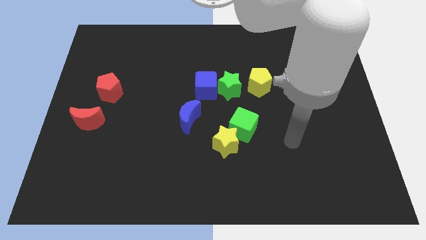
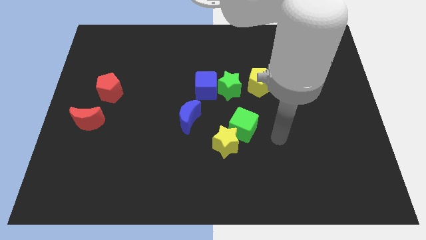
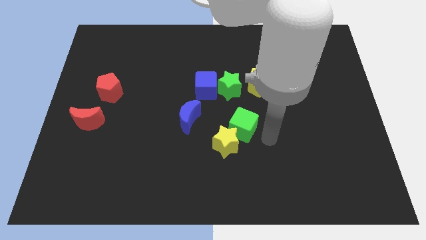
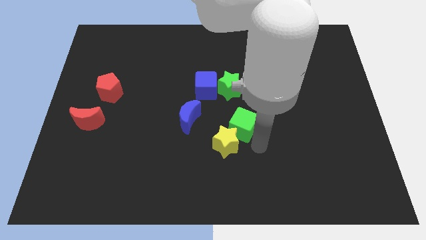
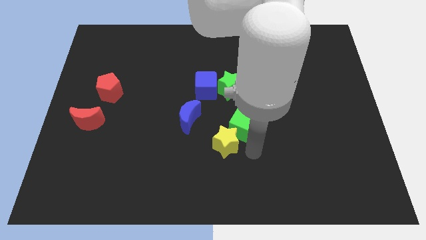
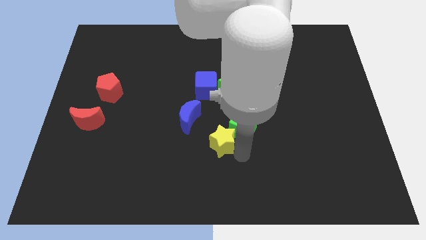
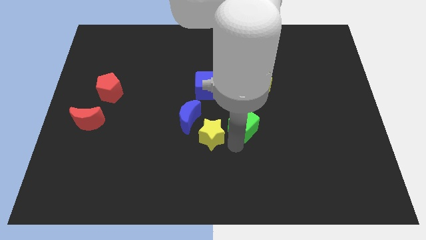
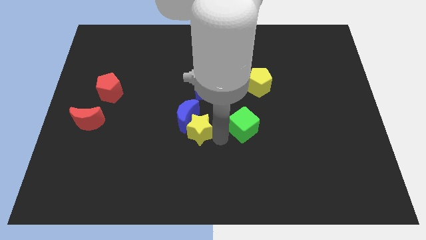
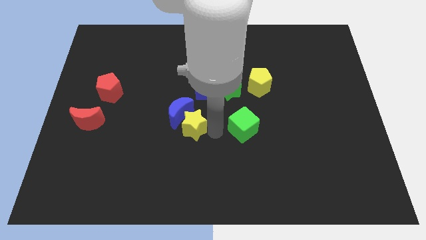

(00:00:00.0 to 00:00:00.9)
pull the green cube apart from the yellow star

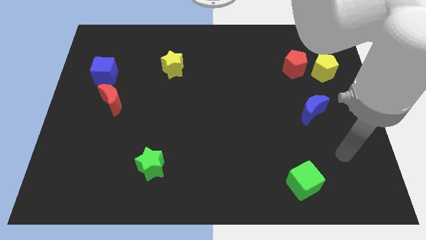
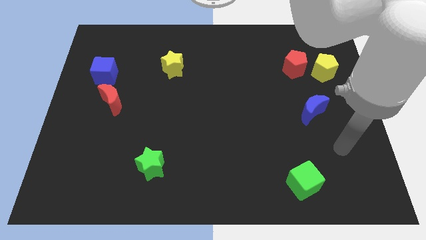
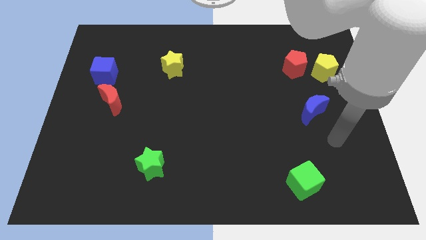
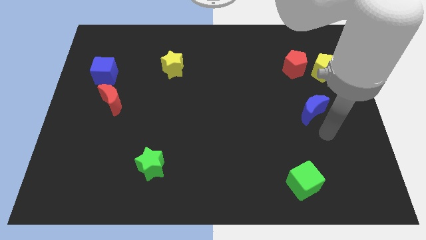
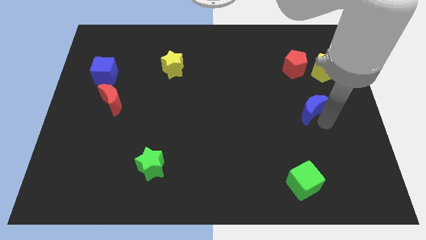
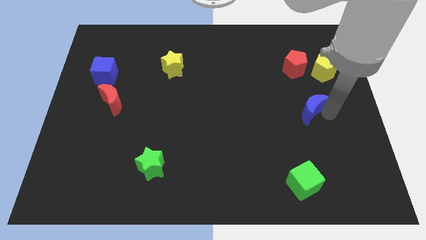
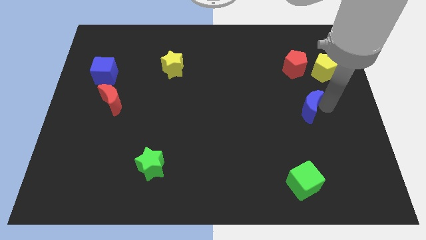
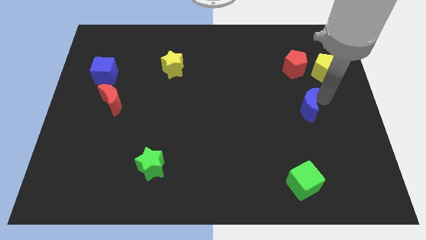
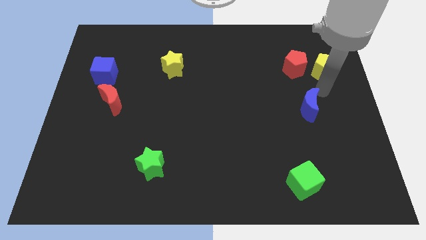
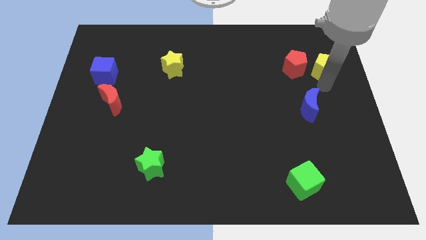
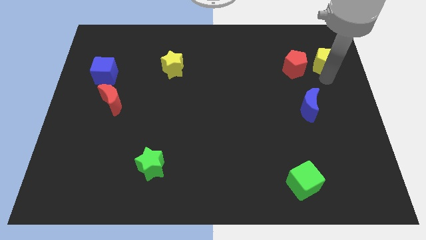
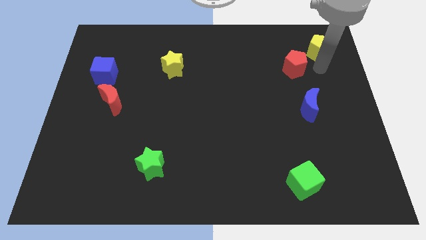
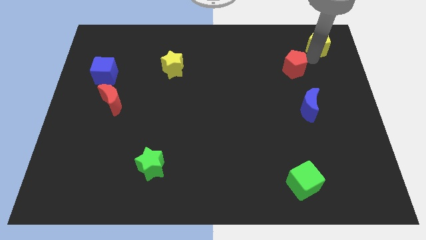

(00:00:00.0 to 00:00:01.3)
move the red pentagon away from the yellow pentagon

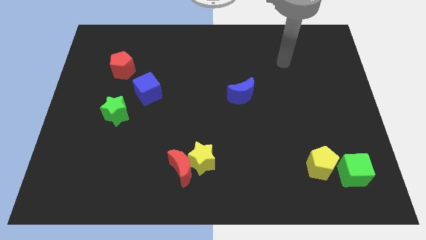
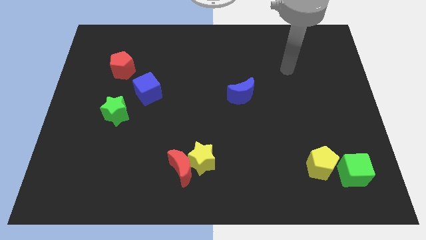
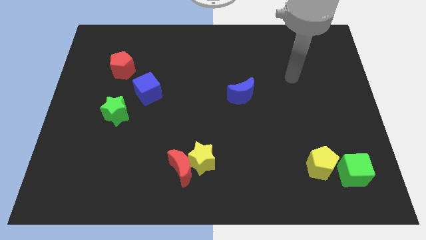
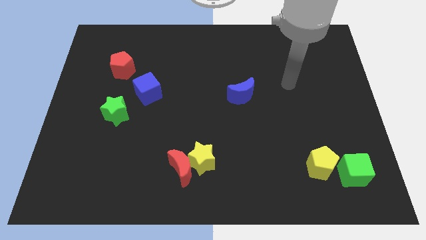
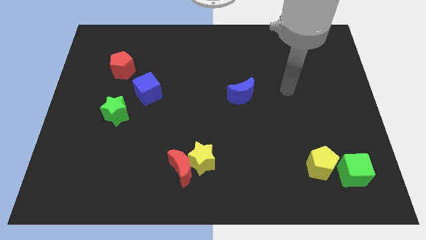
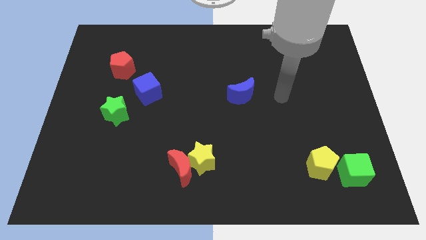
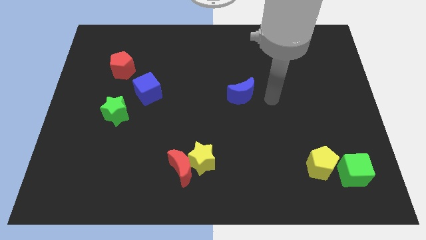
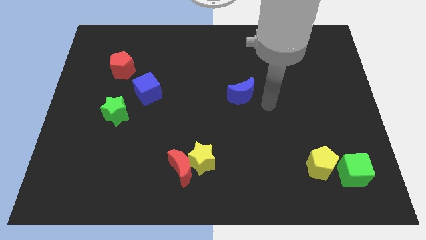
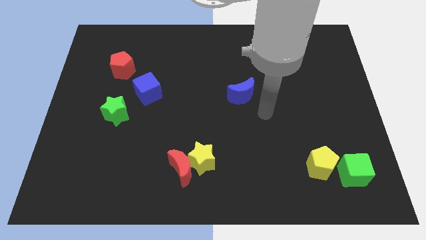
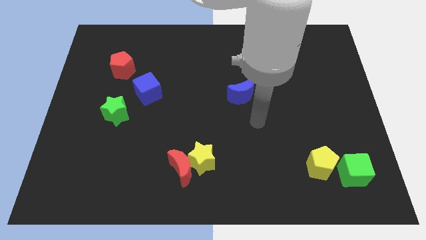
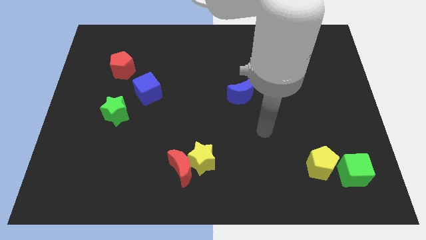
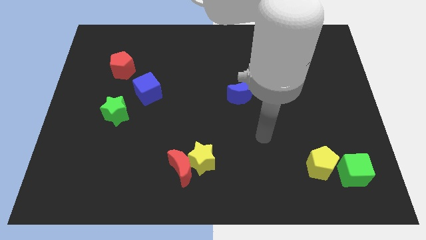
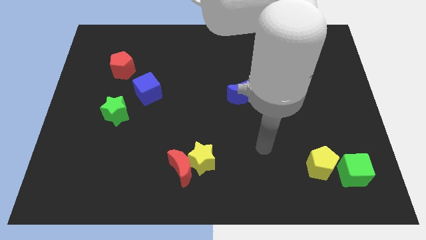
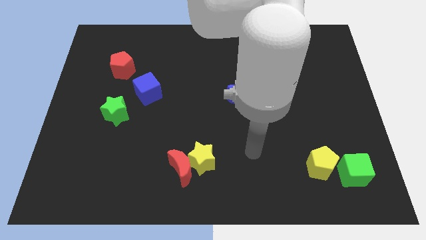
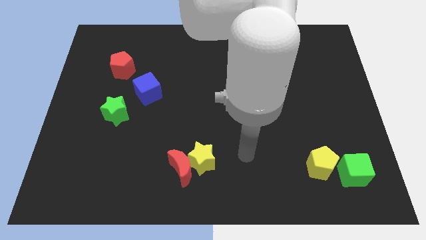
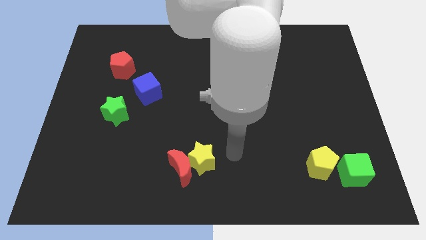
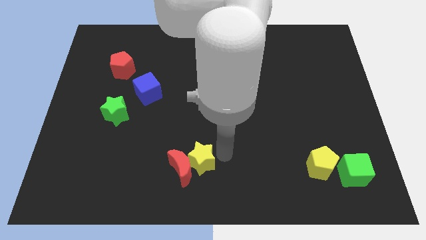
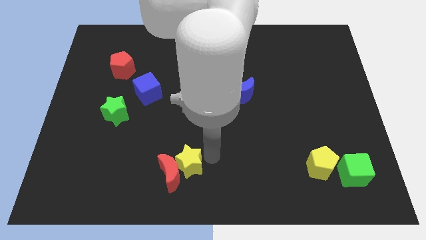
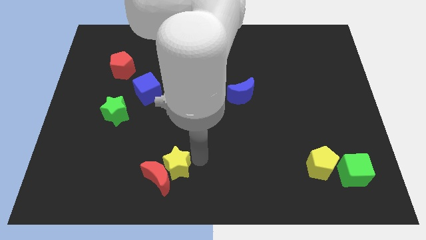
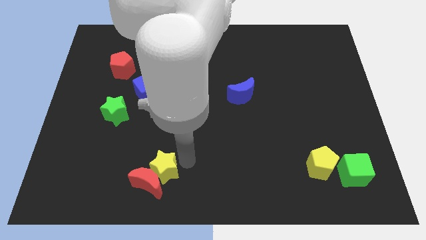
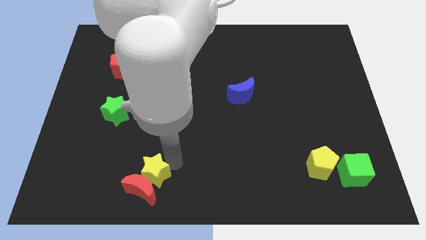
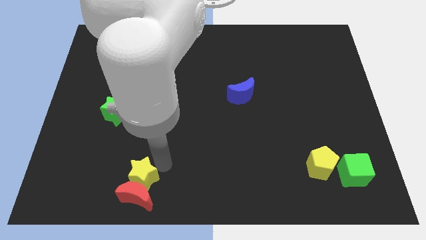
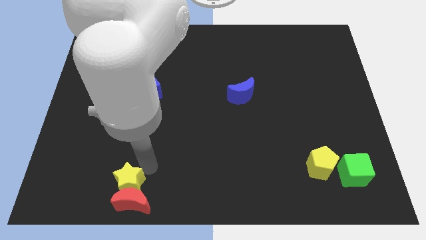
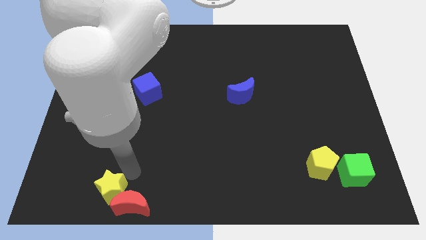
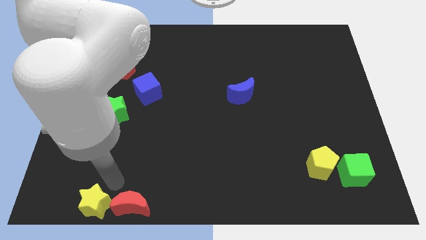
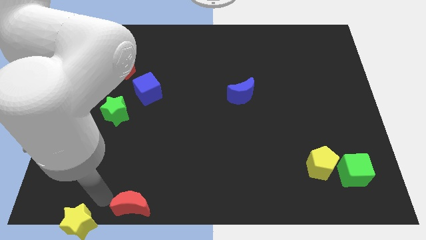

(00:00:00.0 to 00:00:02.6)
pull the red moon apart from the yellow star

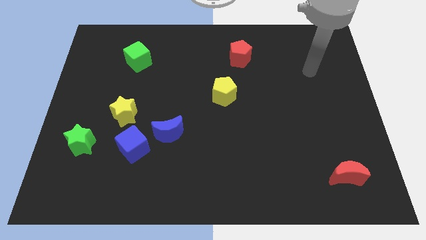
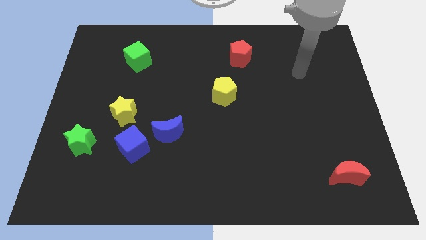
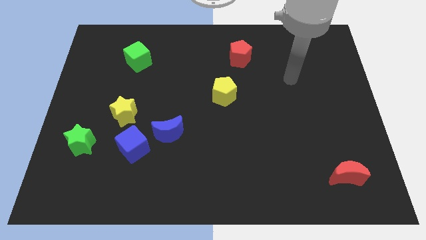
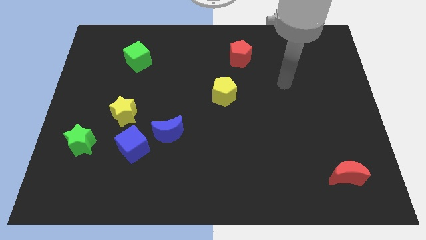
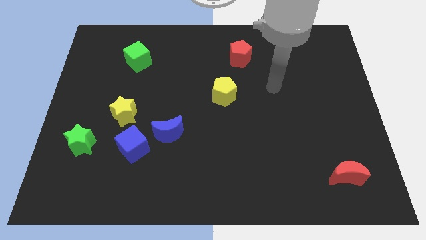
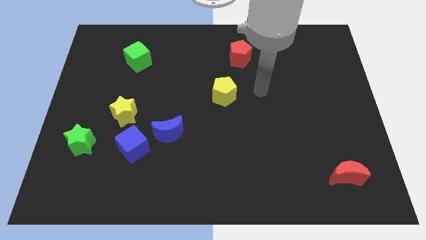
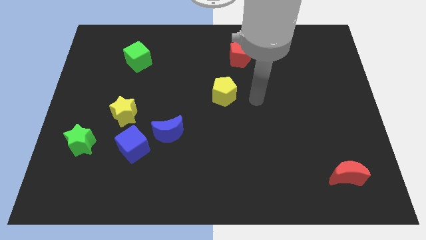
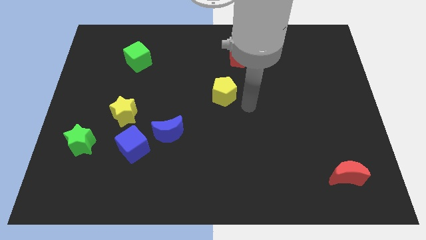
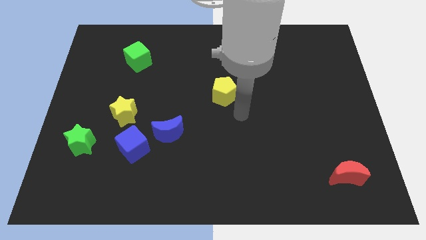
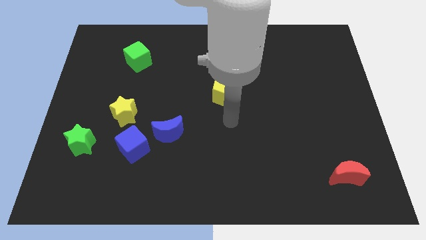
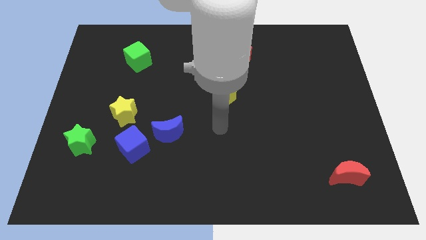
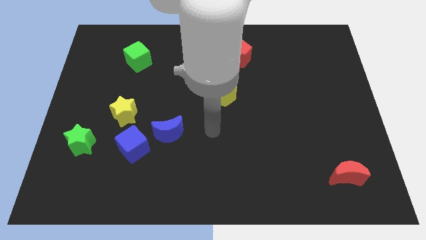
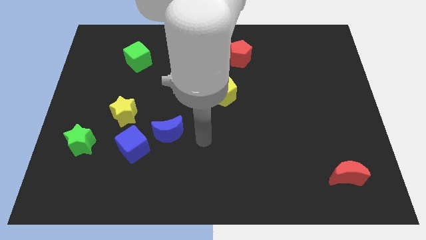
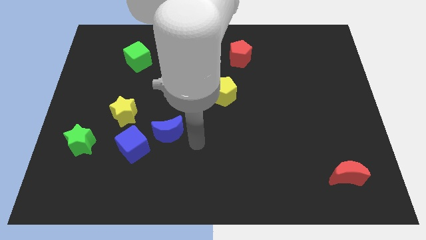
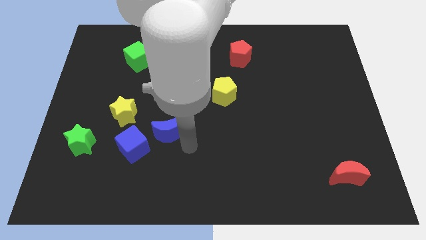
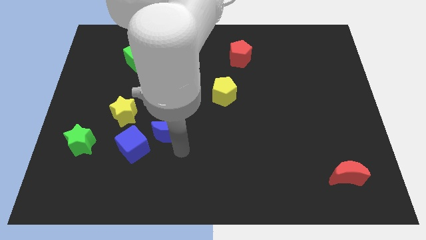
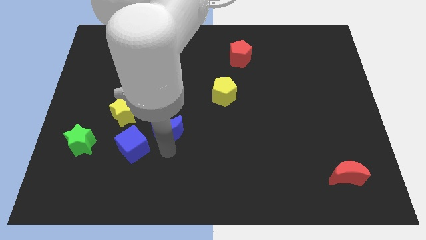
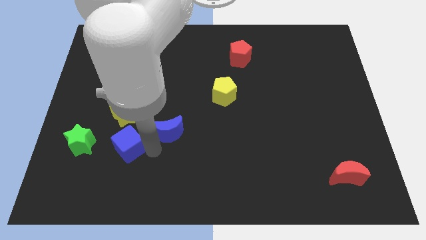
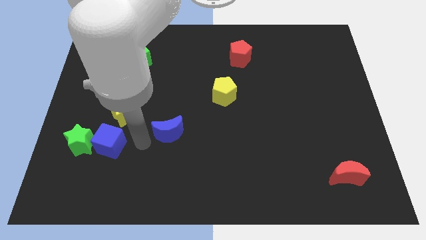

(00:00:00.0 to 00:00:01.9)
move the blue moon away from the blue cube

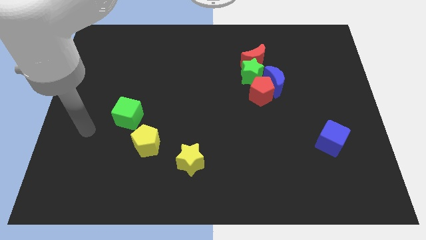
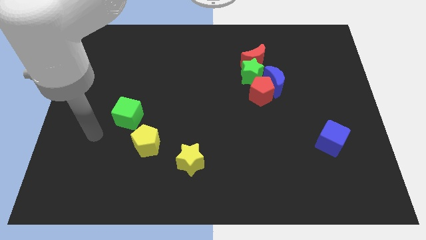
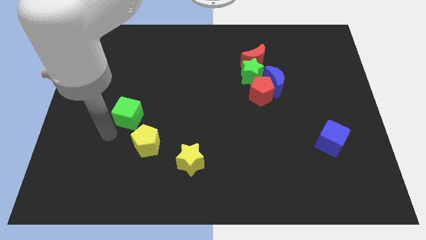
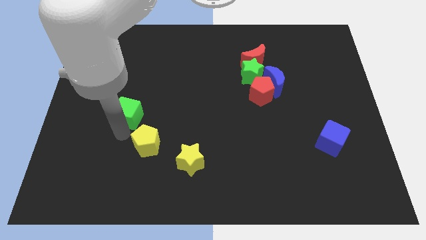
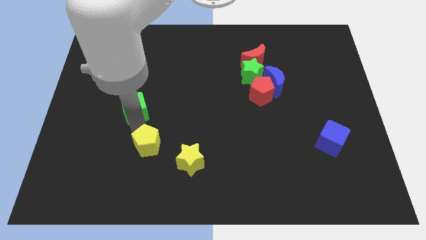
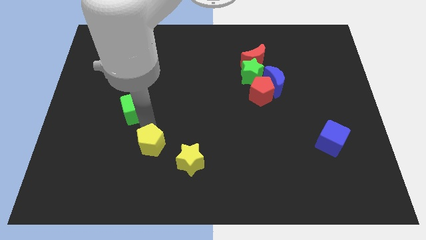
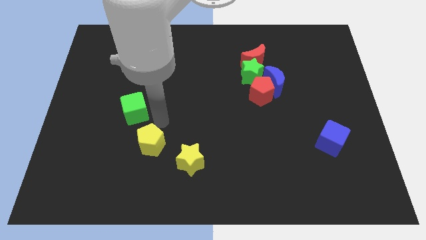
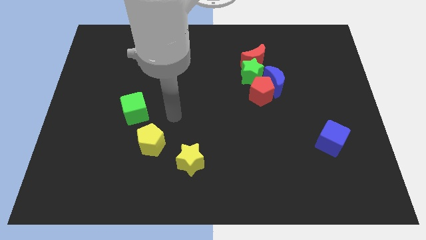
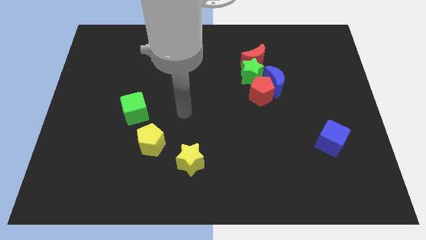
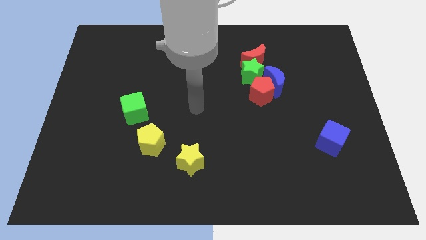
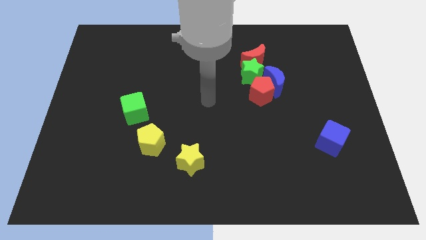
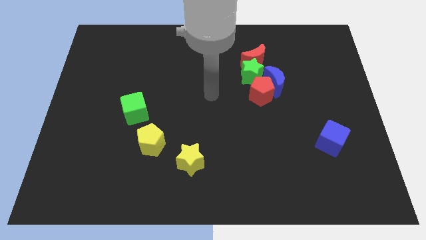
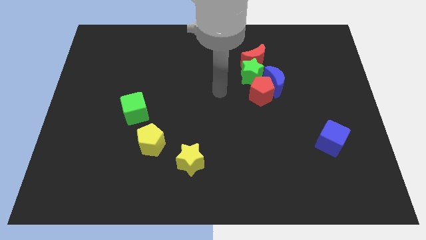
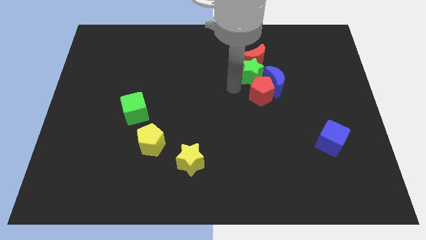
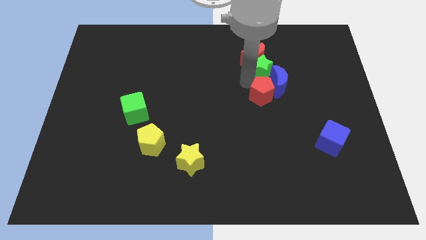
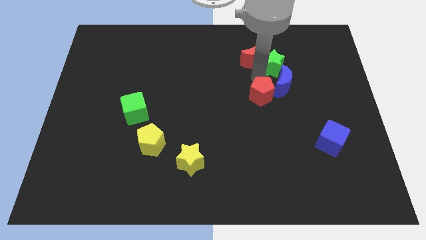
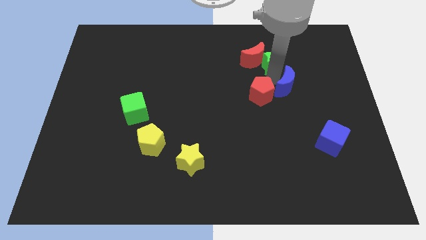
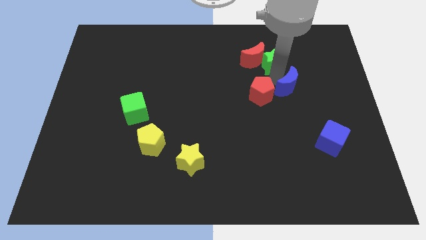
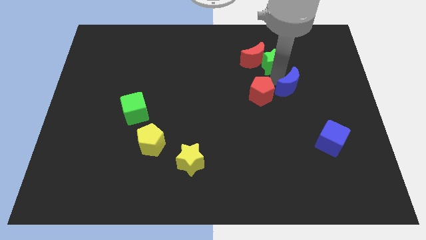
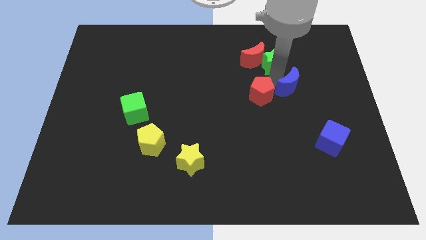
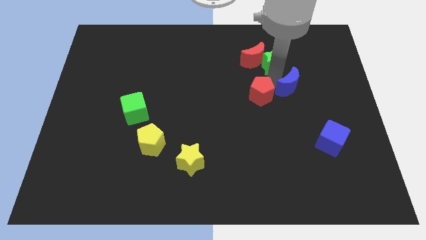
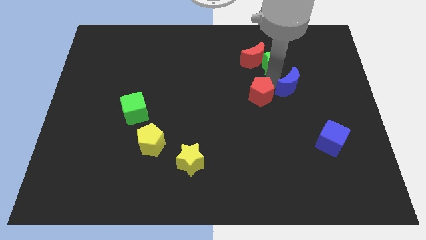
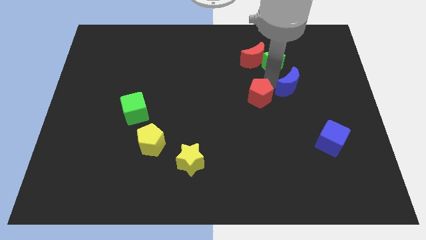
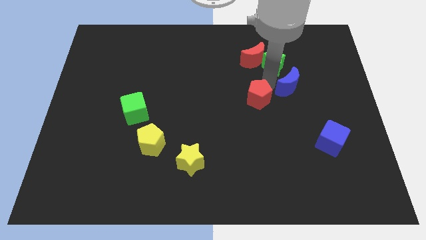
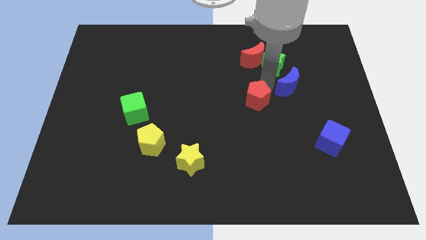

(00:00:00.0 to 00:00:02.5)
pull the red pentagon apart from the blue moon and green star
